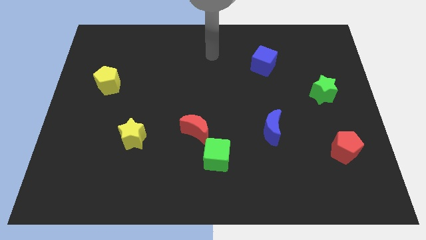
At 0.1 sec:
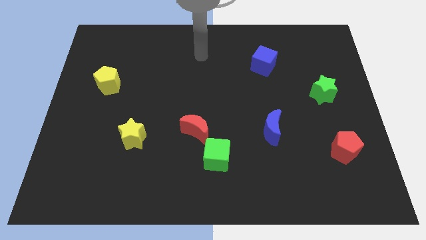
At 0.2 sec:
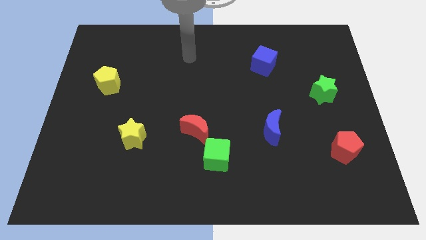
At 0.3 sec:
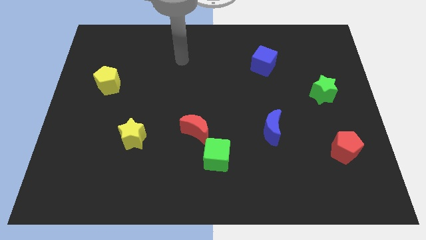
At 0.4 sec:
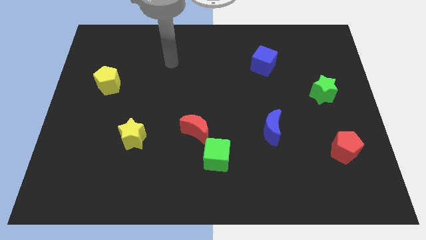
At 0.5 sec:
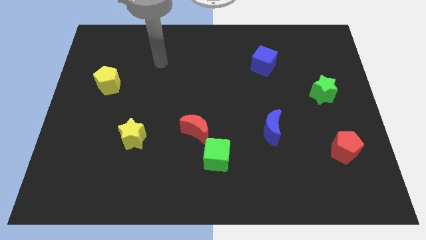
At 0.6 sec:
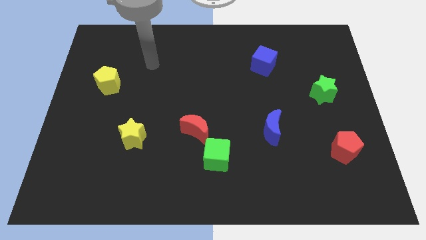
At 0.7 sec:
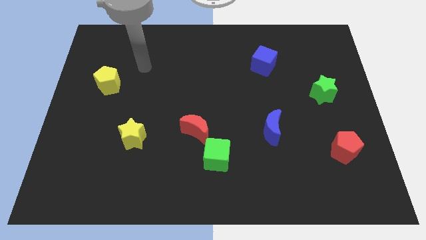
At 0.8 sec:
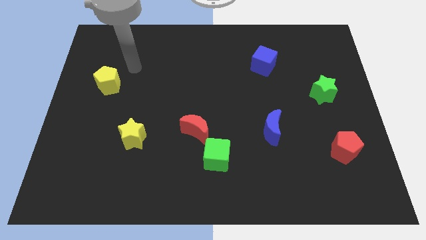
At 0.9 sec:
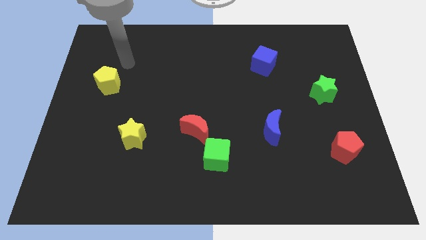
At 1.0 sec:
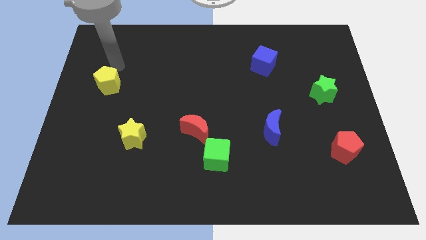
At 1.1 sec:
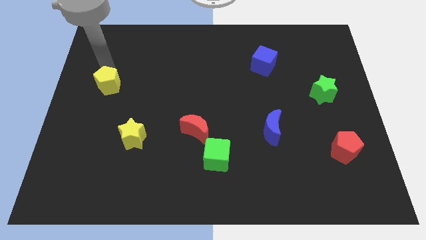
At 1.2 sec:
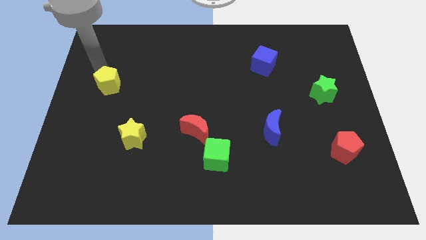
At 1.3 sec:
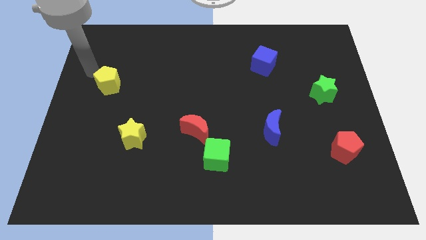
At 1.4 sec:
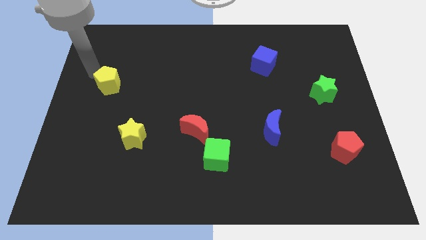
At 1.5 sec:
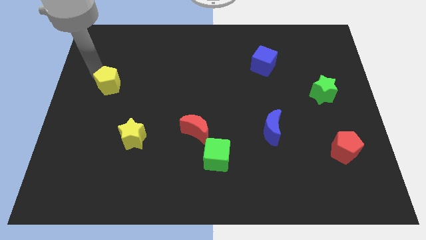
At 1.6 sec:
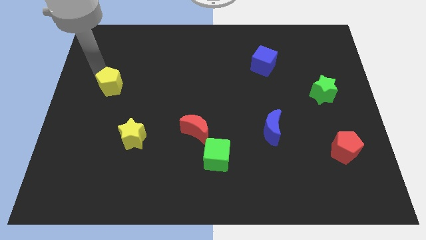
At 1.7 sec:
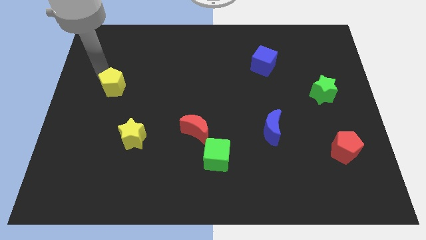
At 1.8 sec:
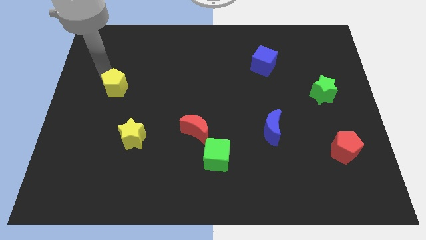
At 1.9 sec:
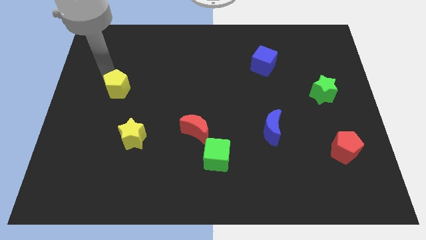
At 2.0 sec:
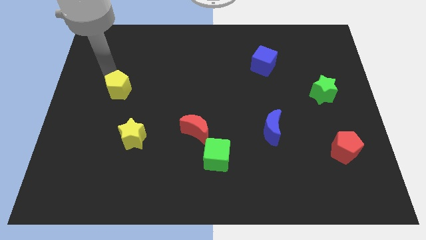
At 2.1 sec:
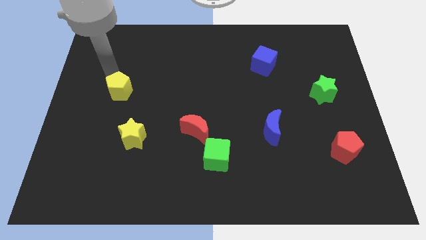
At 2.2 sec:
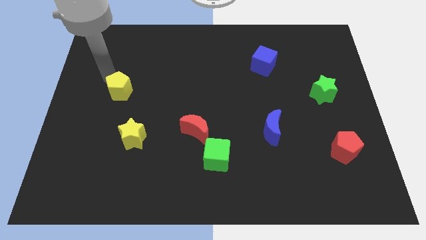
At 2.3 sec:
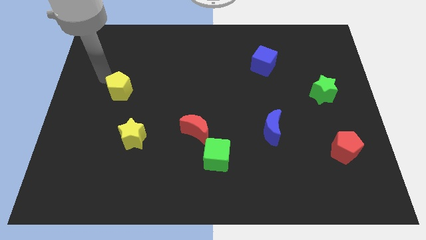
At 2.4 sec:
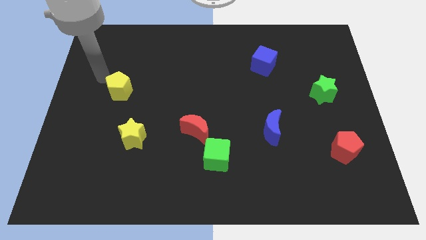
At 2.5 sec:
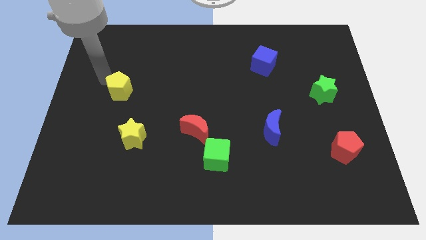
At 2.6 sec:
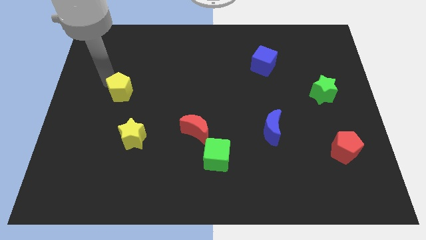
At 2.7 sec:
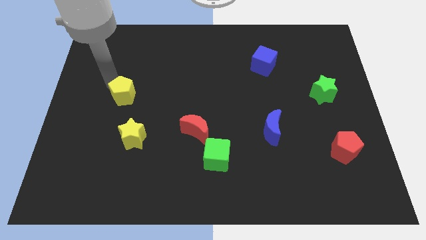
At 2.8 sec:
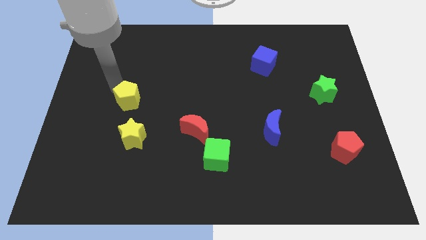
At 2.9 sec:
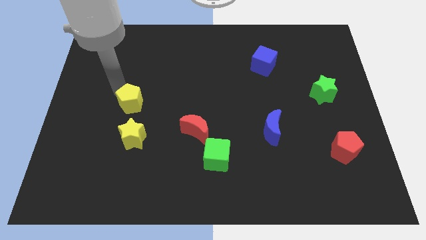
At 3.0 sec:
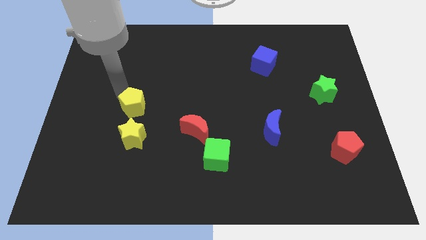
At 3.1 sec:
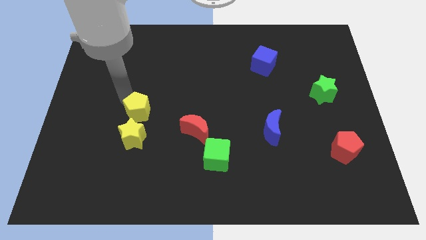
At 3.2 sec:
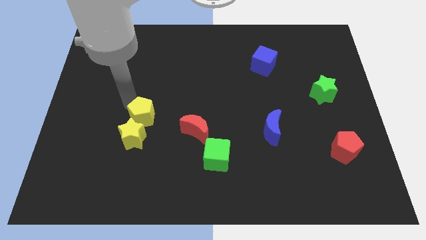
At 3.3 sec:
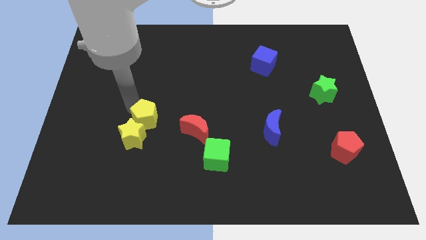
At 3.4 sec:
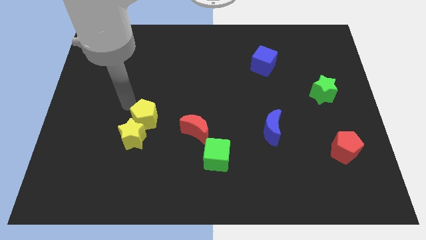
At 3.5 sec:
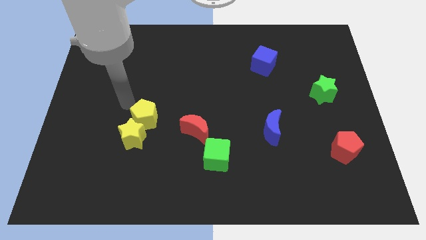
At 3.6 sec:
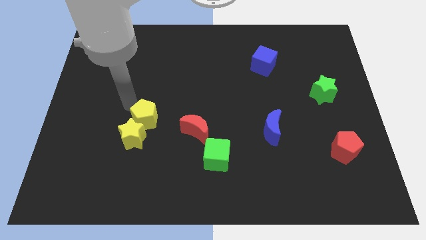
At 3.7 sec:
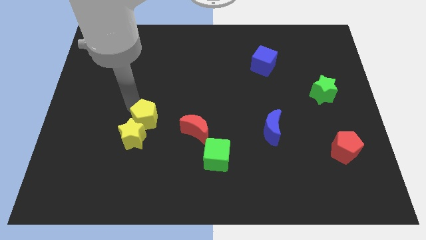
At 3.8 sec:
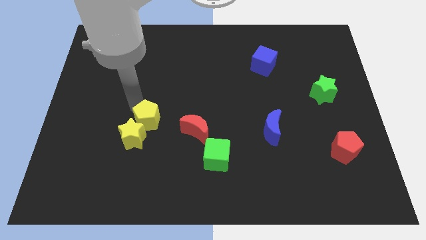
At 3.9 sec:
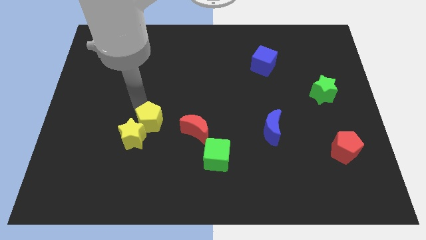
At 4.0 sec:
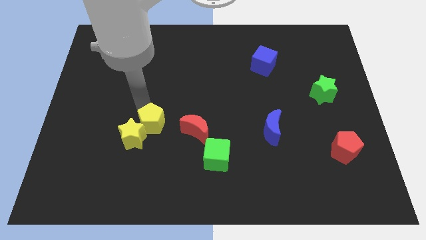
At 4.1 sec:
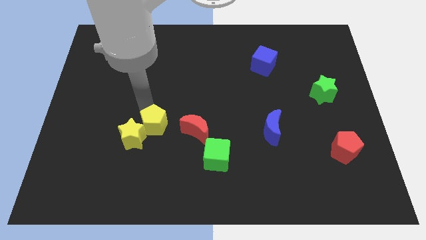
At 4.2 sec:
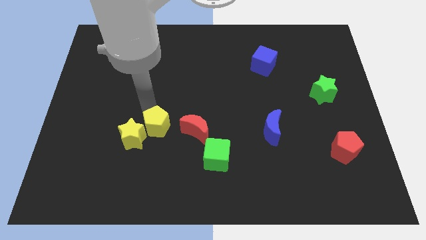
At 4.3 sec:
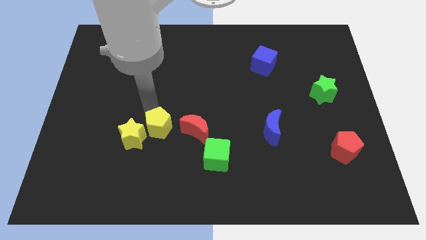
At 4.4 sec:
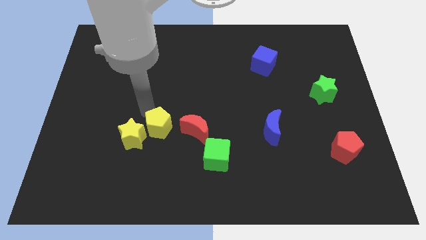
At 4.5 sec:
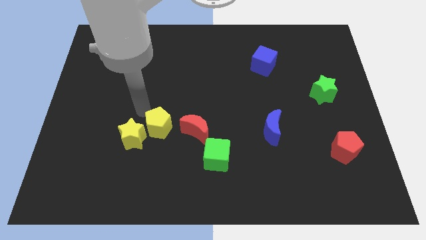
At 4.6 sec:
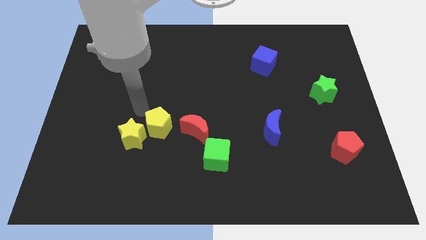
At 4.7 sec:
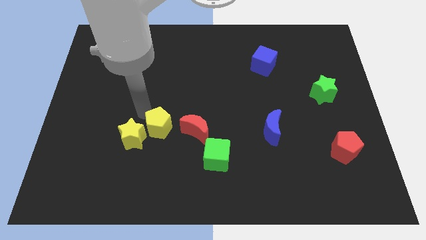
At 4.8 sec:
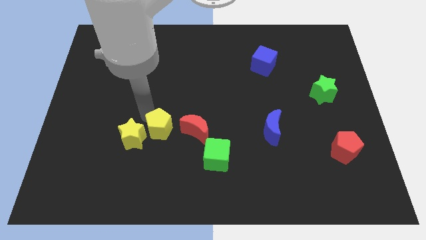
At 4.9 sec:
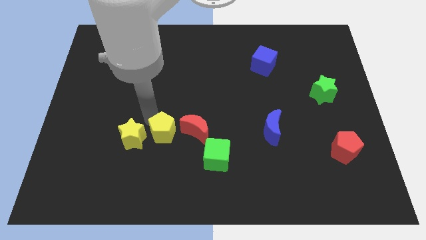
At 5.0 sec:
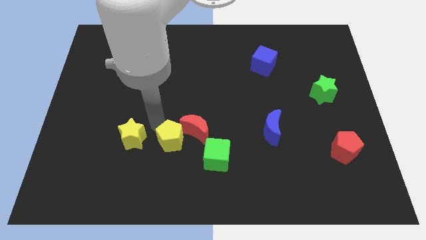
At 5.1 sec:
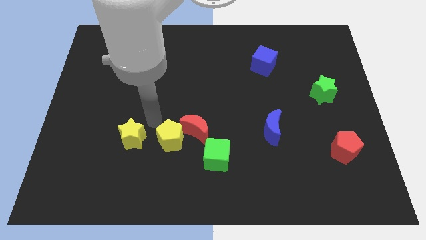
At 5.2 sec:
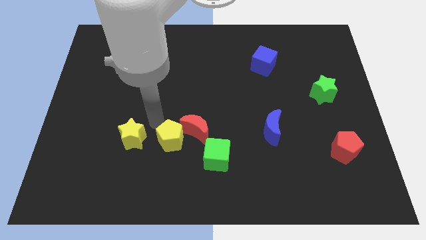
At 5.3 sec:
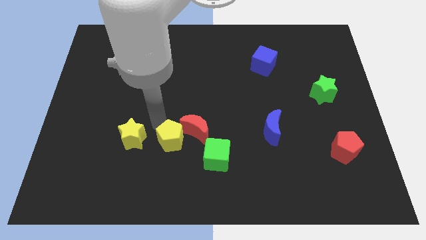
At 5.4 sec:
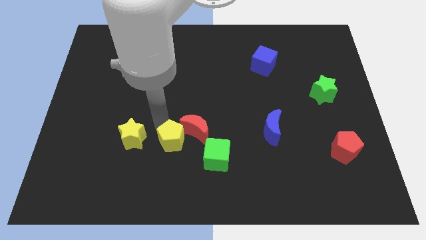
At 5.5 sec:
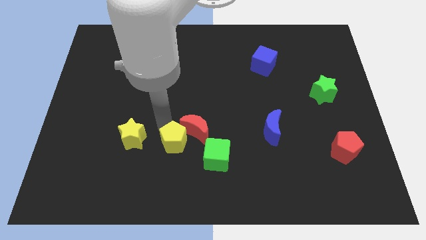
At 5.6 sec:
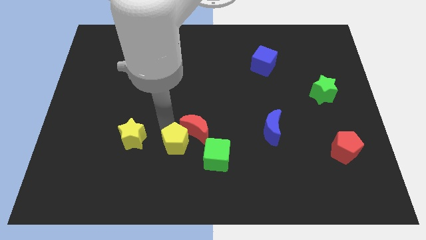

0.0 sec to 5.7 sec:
slide the yellow pentagon to the bottom side of the red moon

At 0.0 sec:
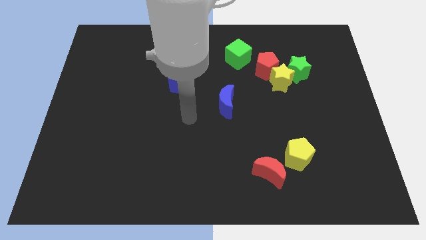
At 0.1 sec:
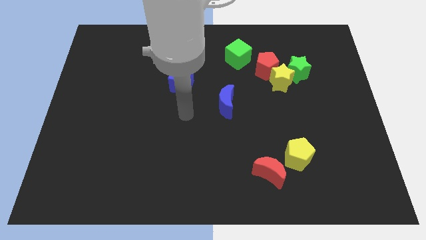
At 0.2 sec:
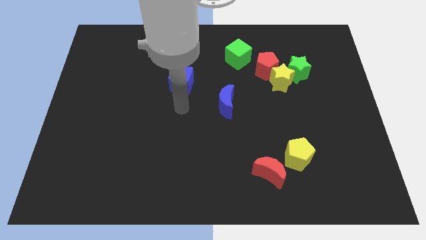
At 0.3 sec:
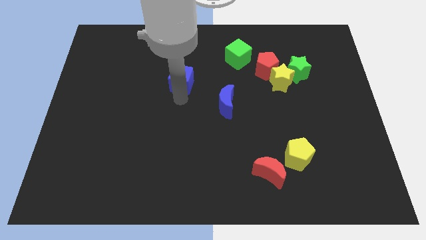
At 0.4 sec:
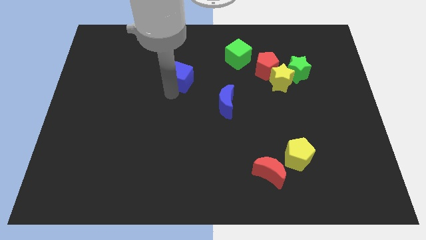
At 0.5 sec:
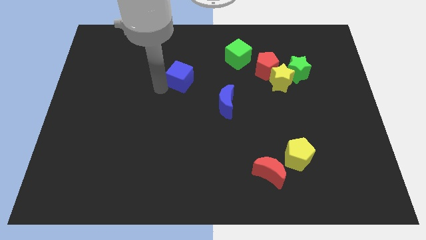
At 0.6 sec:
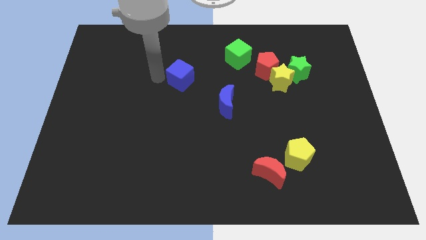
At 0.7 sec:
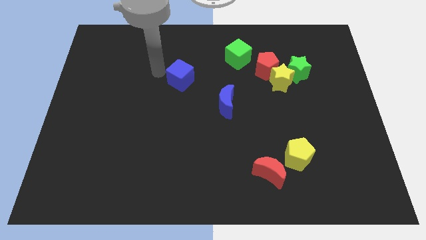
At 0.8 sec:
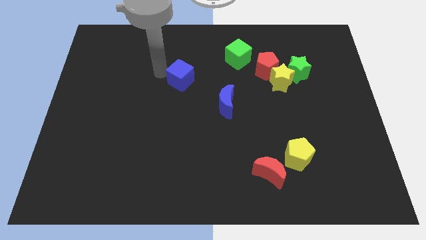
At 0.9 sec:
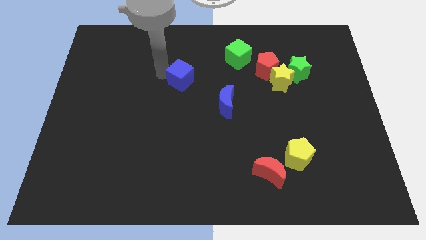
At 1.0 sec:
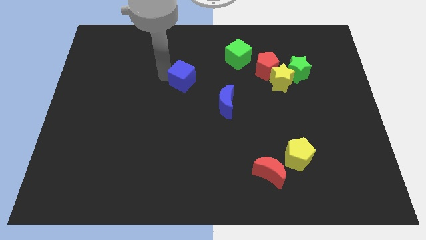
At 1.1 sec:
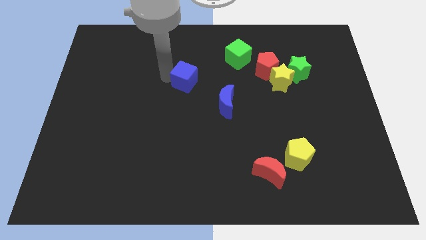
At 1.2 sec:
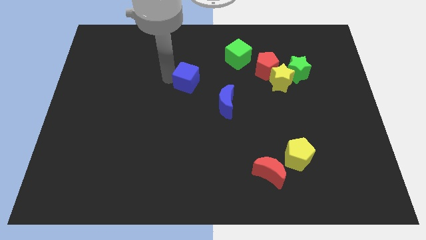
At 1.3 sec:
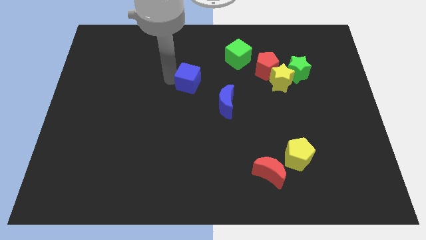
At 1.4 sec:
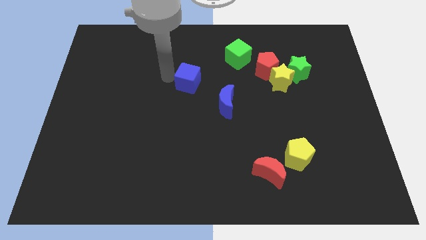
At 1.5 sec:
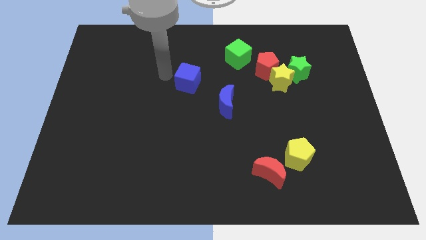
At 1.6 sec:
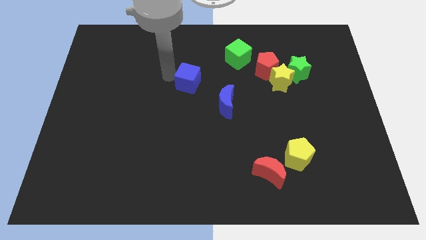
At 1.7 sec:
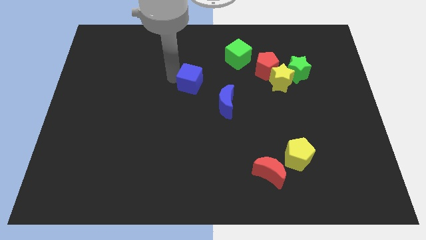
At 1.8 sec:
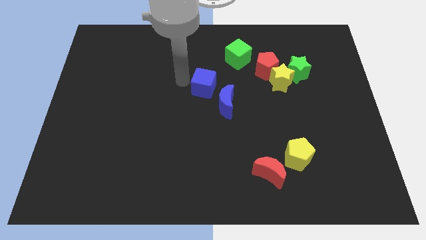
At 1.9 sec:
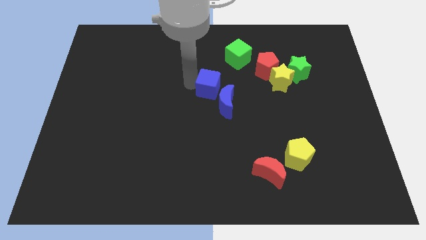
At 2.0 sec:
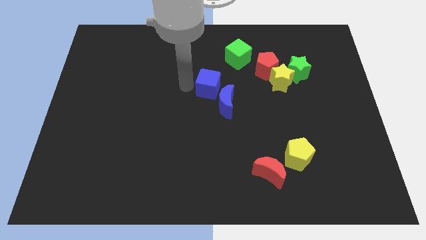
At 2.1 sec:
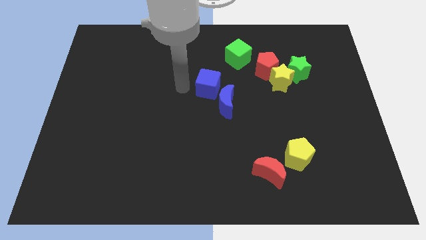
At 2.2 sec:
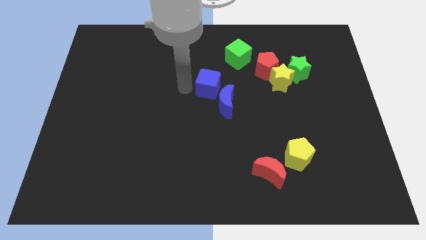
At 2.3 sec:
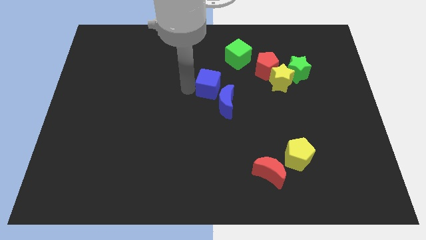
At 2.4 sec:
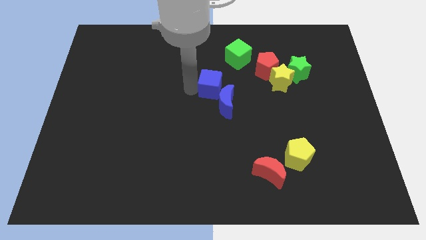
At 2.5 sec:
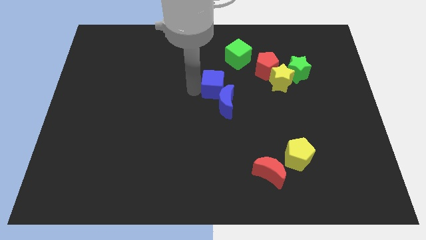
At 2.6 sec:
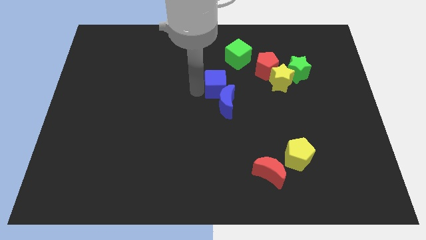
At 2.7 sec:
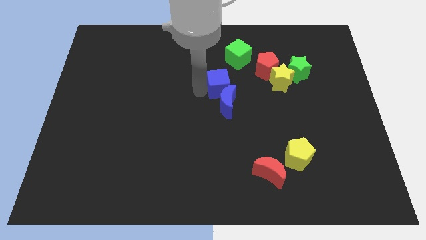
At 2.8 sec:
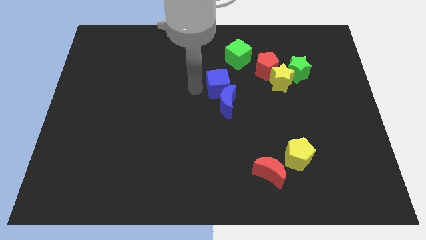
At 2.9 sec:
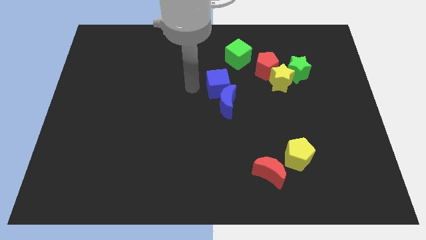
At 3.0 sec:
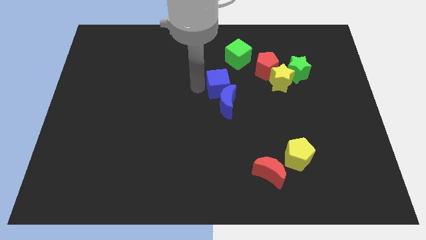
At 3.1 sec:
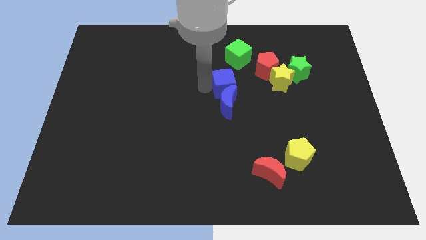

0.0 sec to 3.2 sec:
move the blue cube to the bottom side of the green cube
